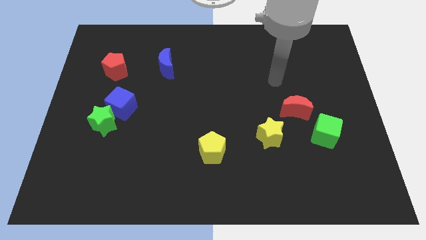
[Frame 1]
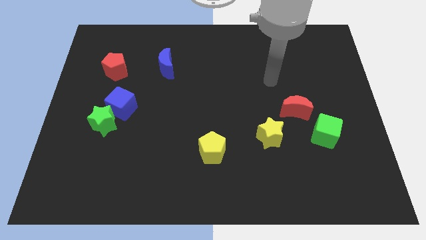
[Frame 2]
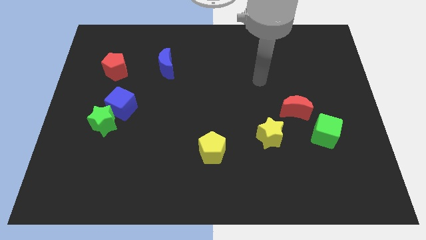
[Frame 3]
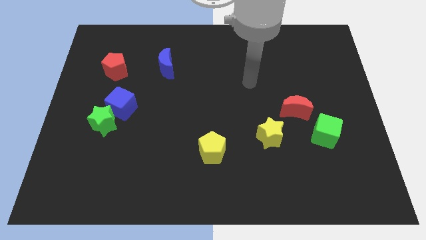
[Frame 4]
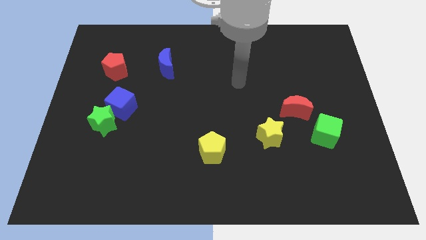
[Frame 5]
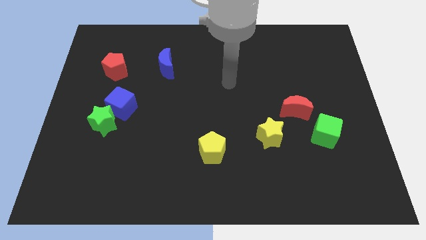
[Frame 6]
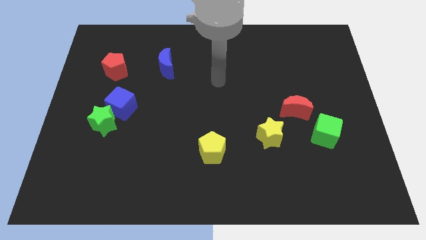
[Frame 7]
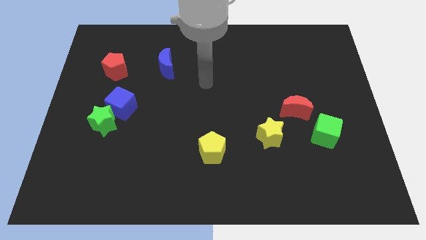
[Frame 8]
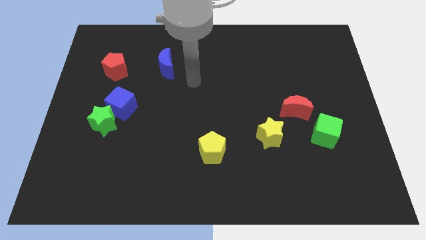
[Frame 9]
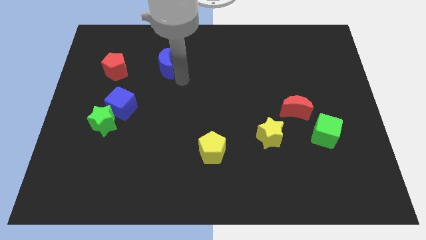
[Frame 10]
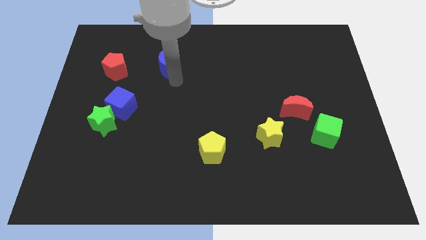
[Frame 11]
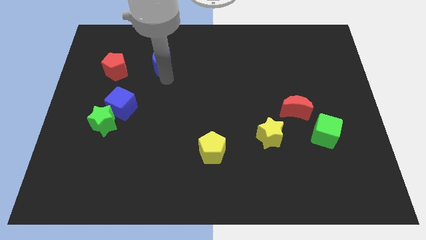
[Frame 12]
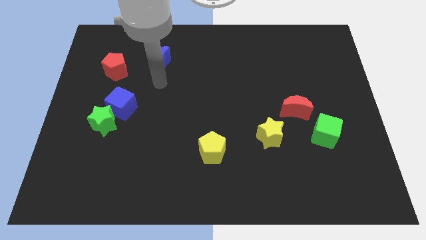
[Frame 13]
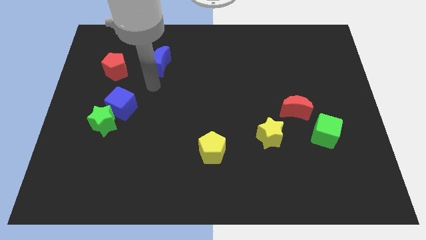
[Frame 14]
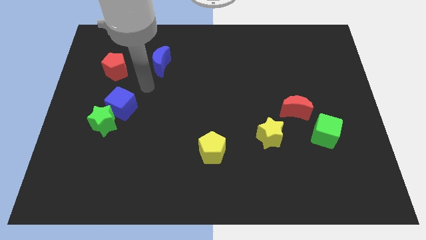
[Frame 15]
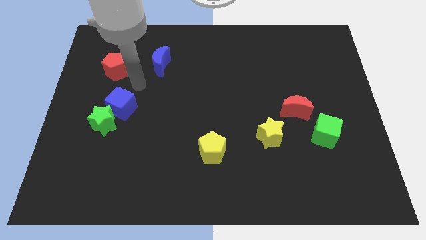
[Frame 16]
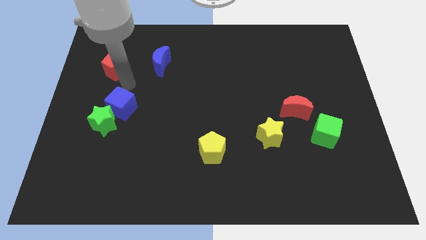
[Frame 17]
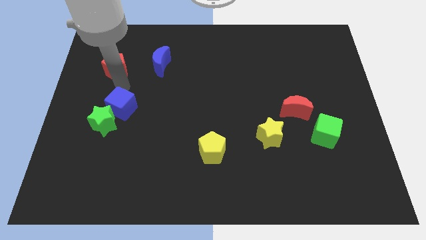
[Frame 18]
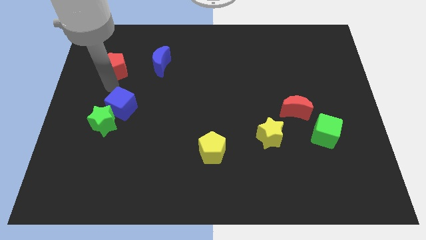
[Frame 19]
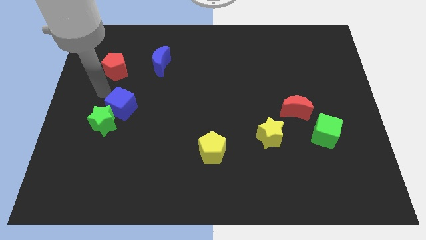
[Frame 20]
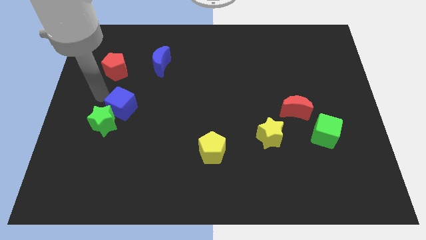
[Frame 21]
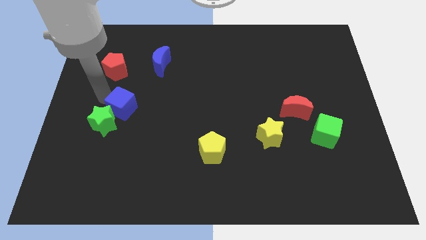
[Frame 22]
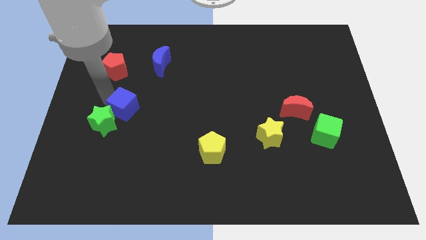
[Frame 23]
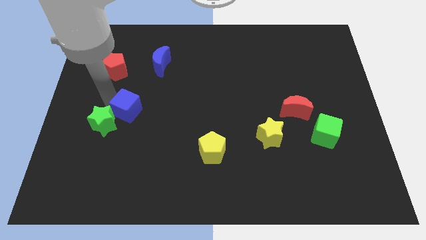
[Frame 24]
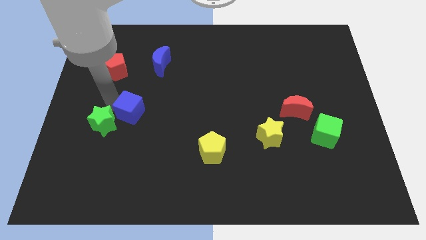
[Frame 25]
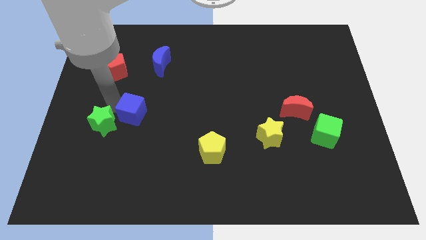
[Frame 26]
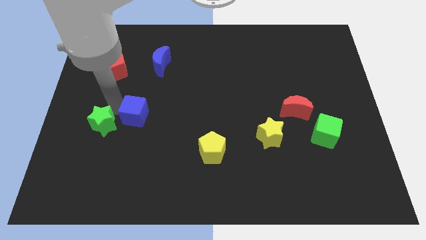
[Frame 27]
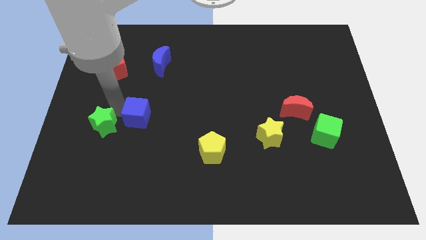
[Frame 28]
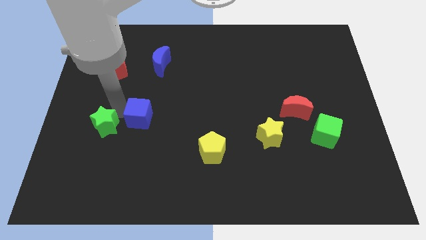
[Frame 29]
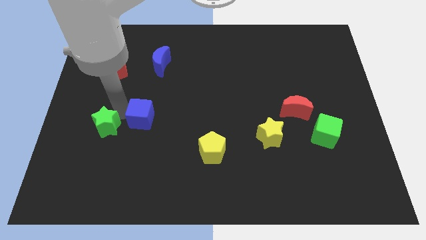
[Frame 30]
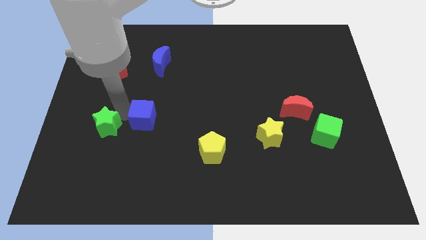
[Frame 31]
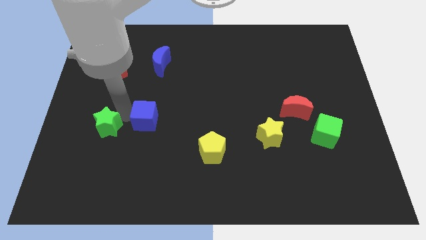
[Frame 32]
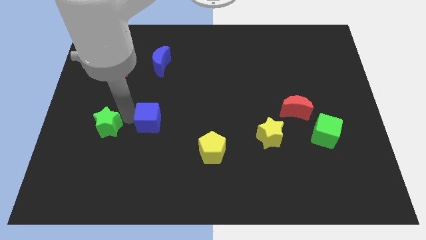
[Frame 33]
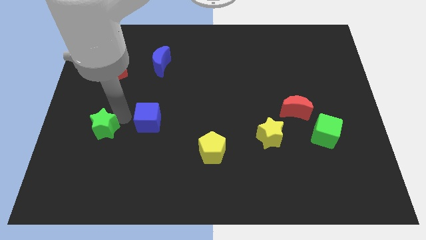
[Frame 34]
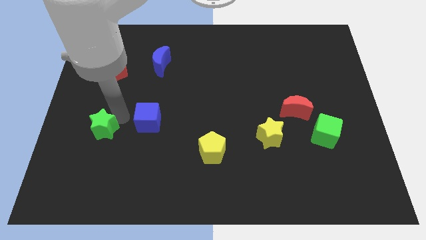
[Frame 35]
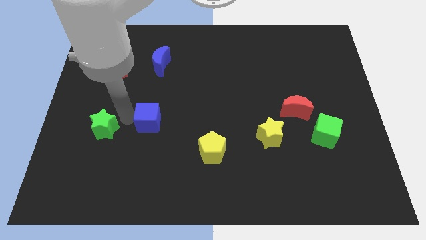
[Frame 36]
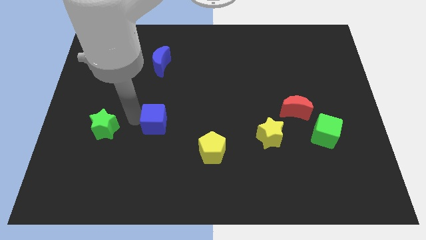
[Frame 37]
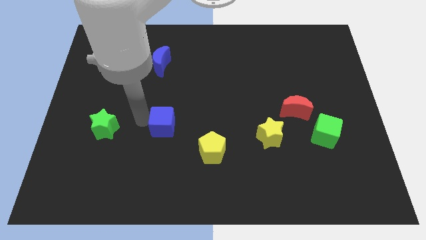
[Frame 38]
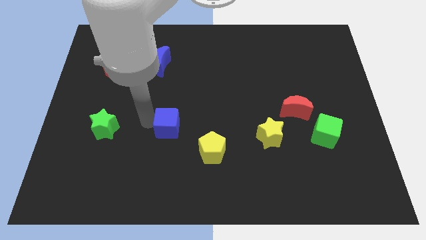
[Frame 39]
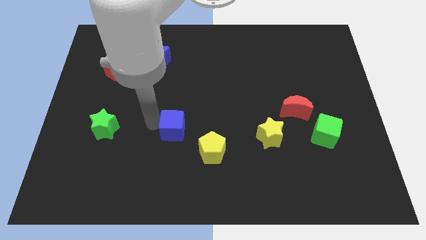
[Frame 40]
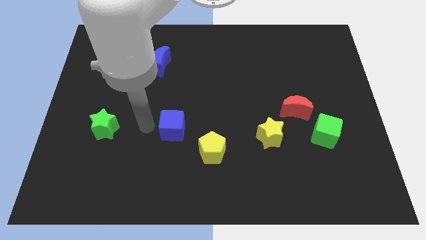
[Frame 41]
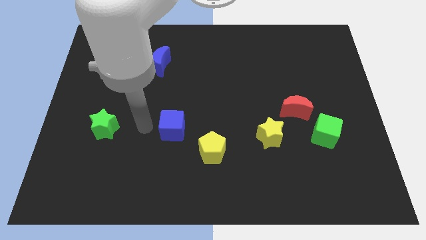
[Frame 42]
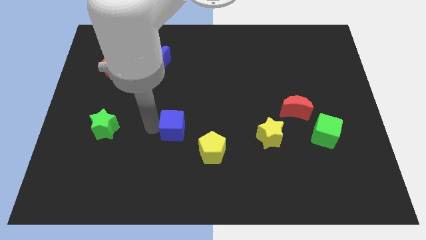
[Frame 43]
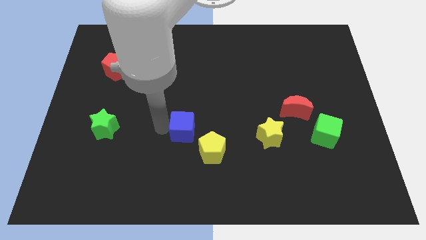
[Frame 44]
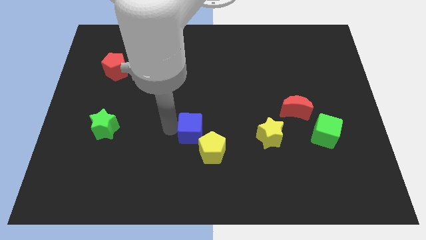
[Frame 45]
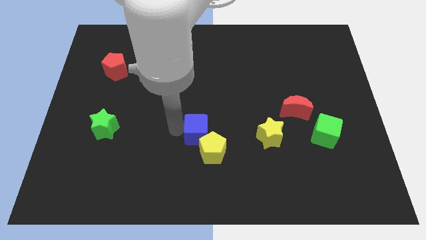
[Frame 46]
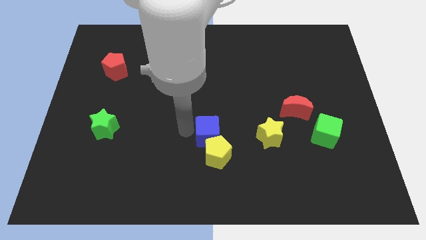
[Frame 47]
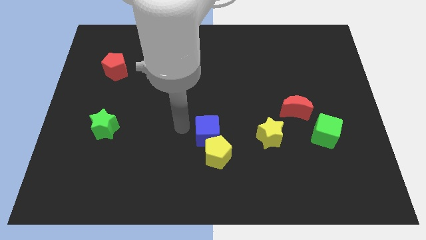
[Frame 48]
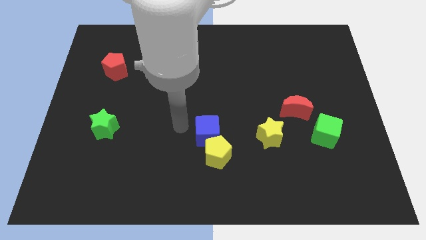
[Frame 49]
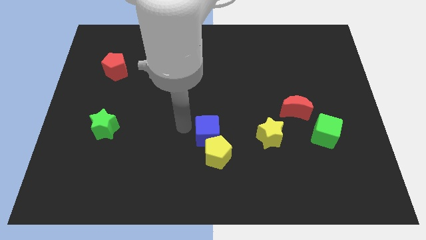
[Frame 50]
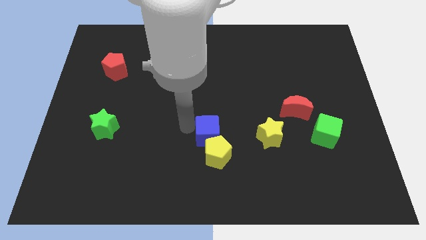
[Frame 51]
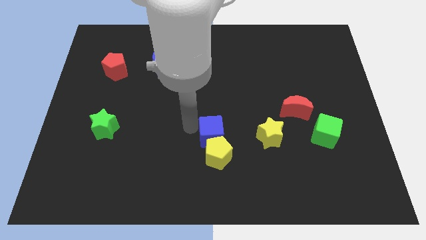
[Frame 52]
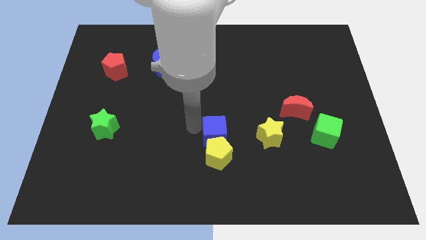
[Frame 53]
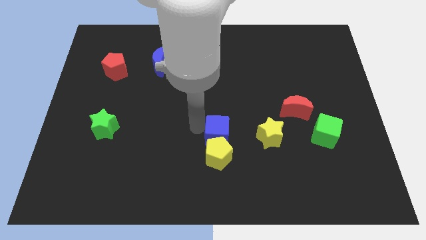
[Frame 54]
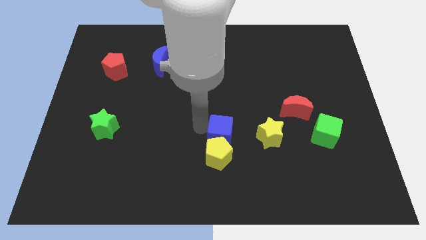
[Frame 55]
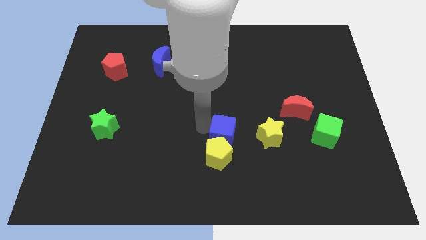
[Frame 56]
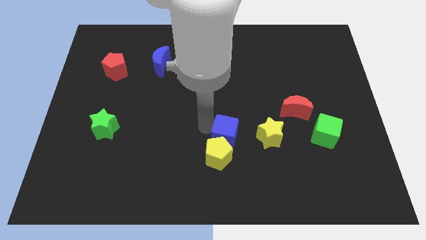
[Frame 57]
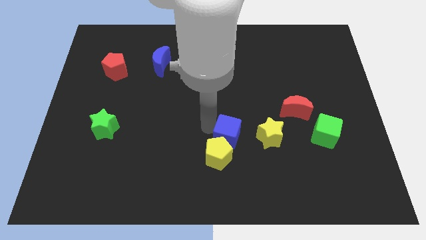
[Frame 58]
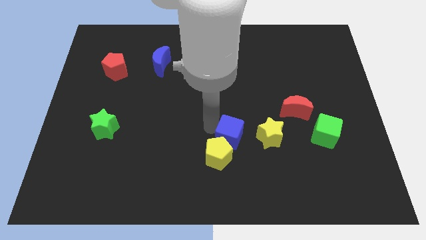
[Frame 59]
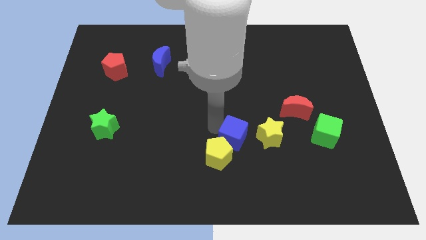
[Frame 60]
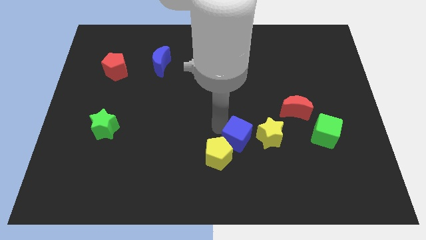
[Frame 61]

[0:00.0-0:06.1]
slide the blue cube to the right of the yellow pentagon

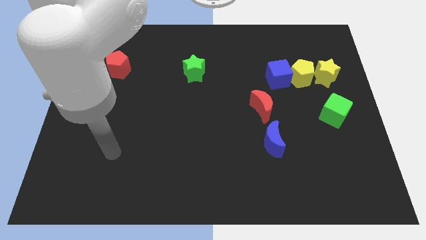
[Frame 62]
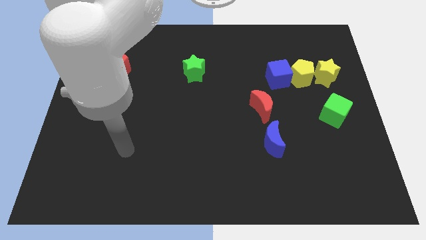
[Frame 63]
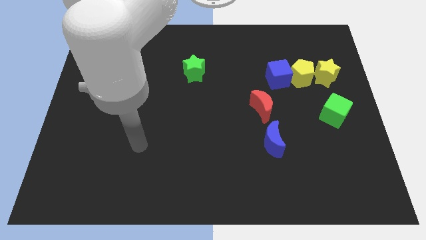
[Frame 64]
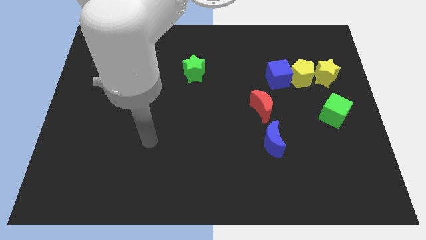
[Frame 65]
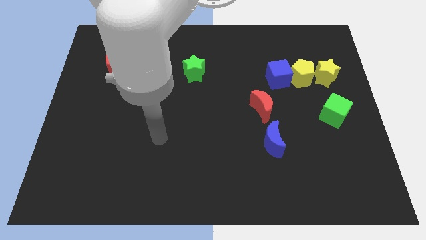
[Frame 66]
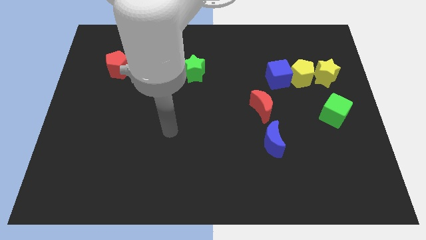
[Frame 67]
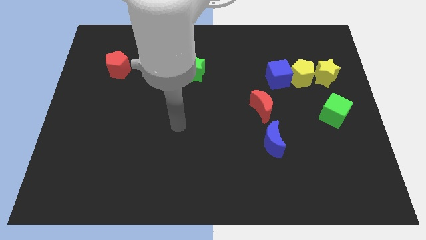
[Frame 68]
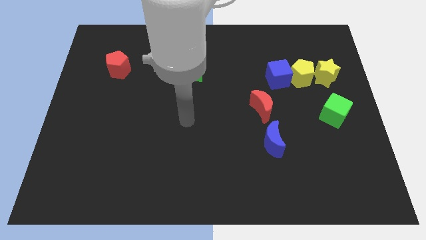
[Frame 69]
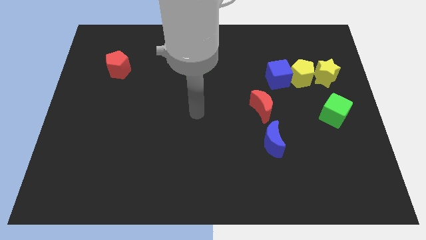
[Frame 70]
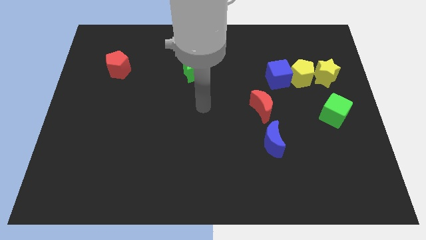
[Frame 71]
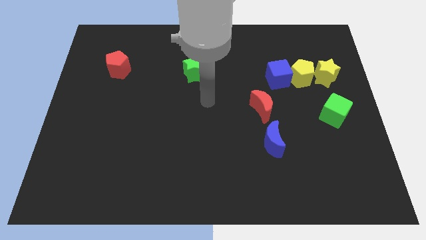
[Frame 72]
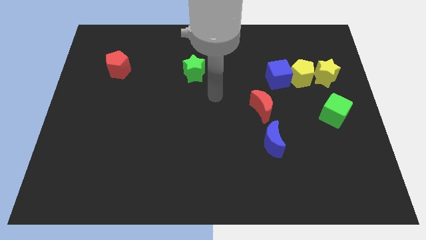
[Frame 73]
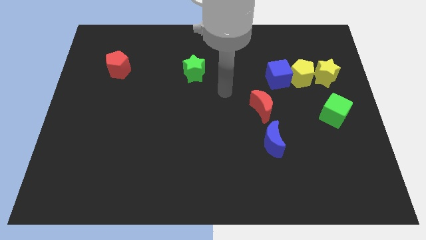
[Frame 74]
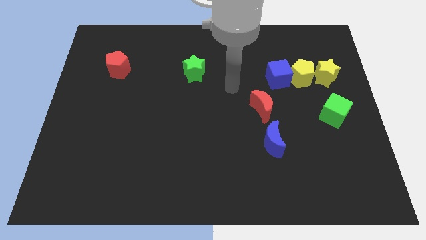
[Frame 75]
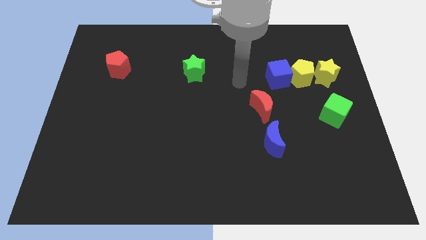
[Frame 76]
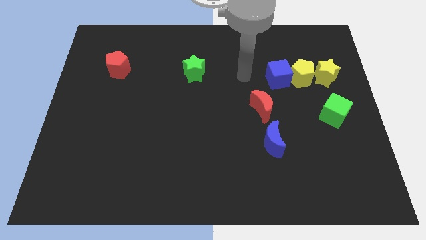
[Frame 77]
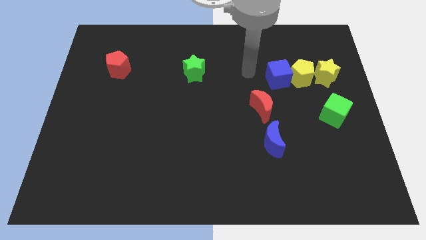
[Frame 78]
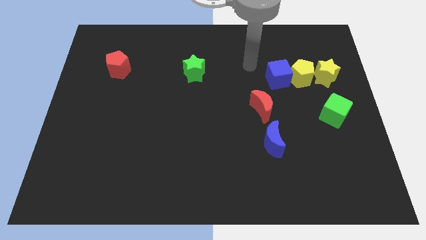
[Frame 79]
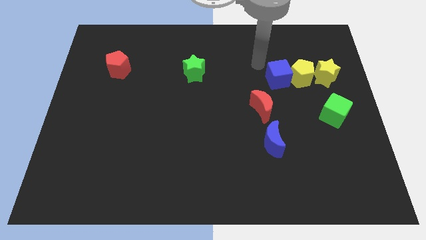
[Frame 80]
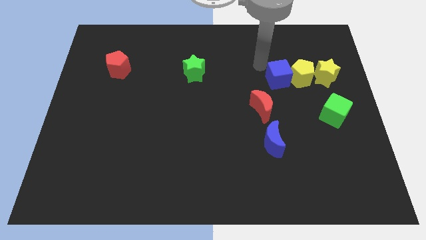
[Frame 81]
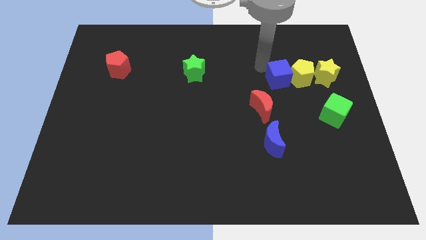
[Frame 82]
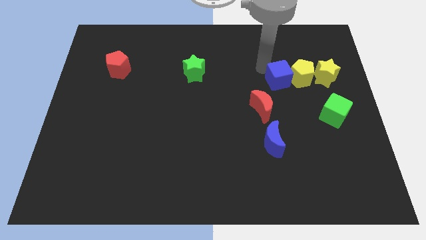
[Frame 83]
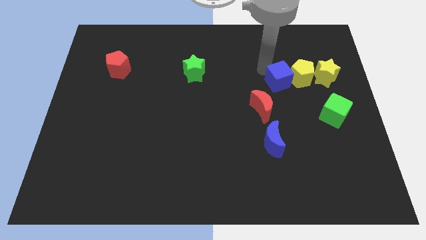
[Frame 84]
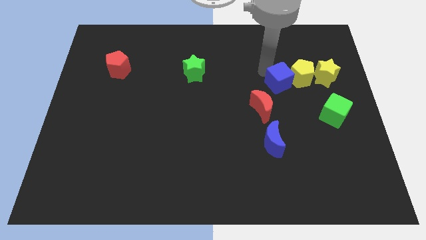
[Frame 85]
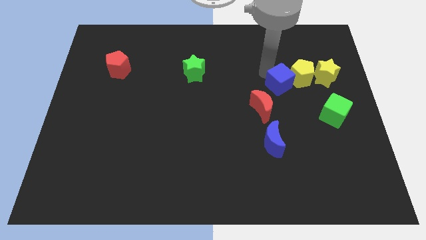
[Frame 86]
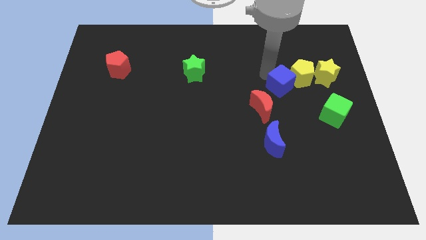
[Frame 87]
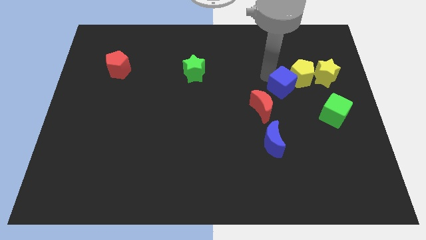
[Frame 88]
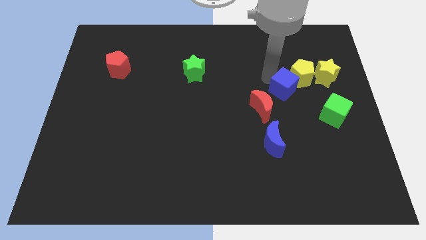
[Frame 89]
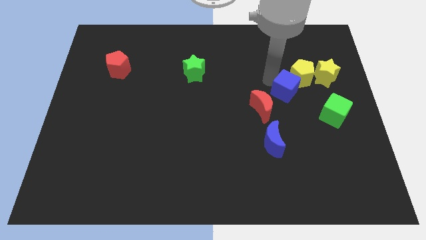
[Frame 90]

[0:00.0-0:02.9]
push the blue cube to the bottom of the yellow pentagon
